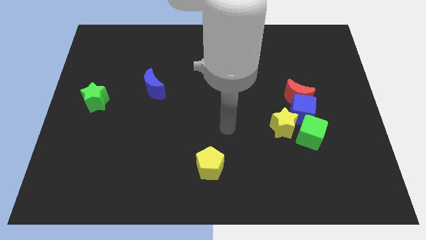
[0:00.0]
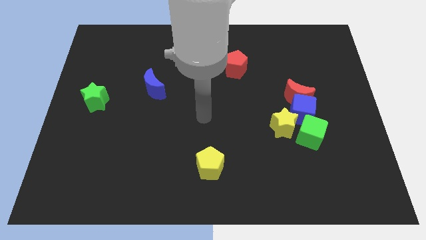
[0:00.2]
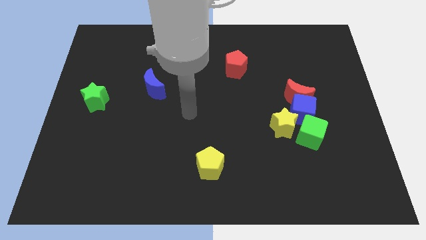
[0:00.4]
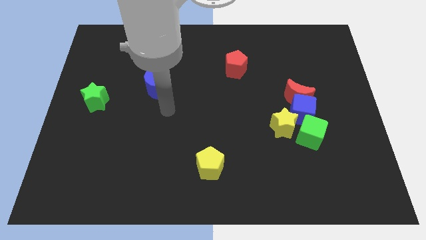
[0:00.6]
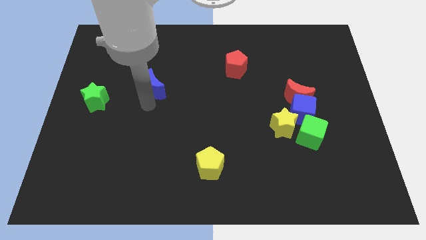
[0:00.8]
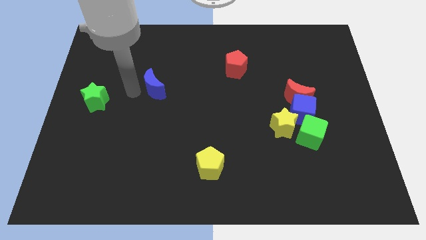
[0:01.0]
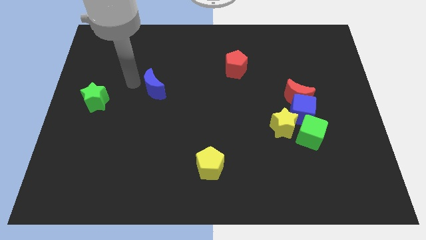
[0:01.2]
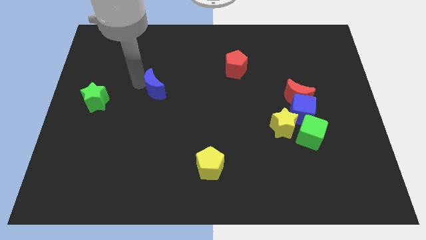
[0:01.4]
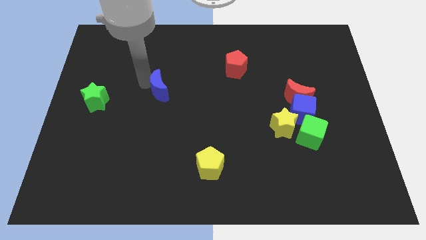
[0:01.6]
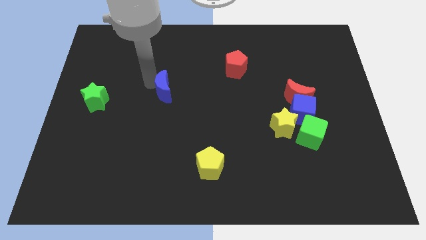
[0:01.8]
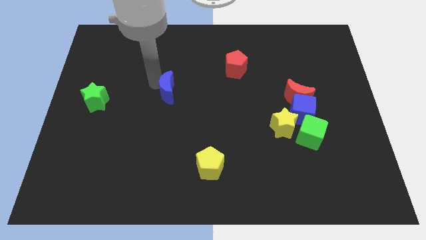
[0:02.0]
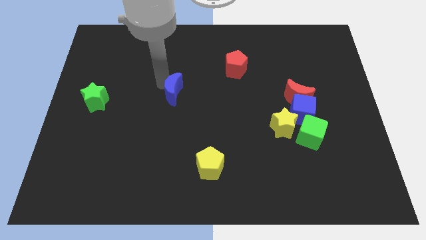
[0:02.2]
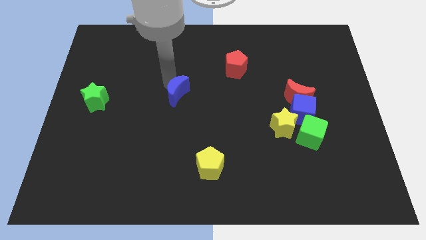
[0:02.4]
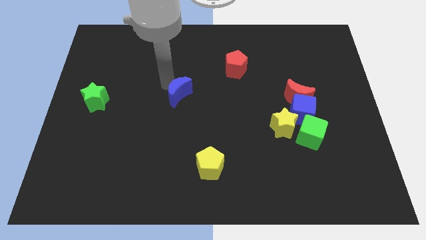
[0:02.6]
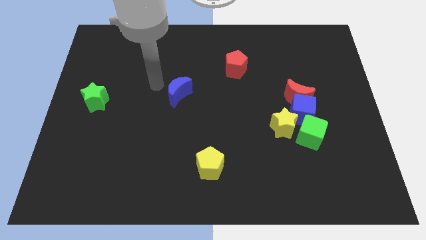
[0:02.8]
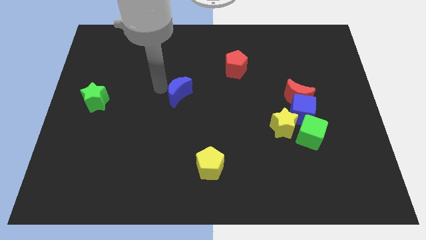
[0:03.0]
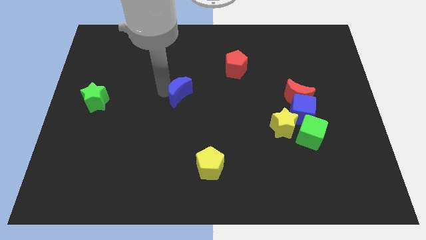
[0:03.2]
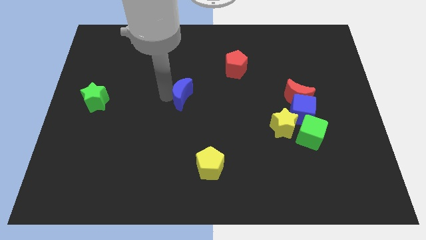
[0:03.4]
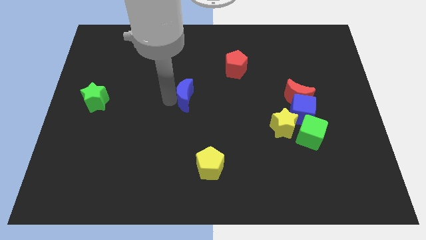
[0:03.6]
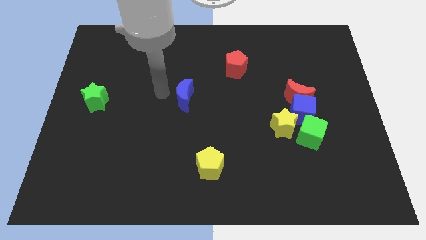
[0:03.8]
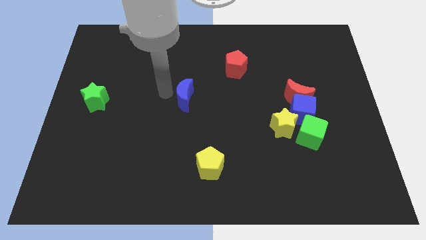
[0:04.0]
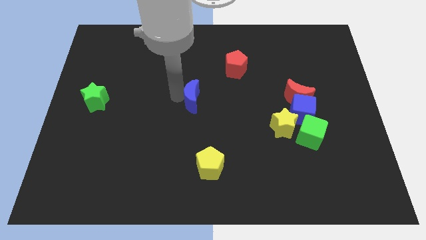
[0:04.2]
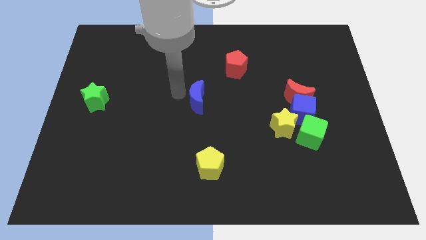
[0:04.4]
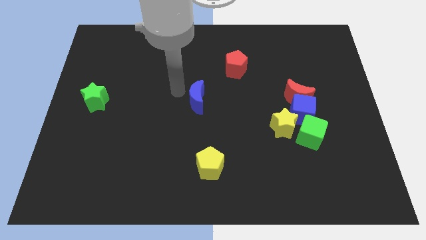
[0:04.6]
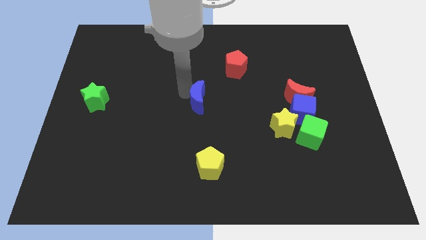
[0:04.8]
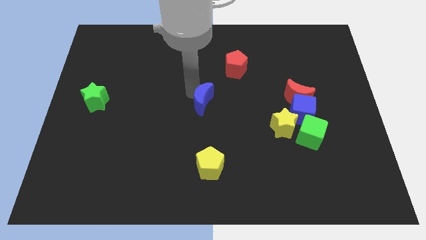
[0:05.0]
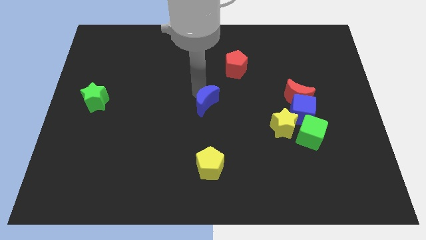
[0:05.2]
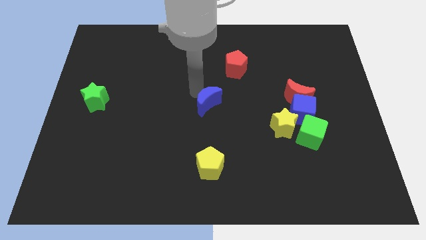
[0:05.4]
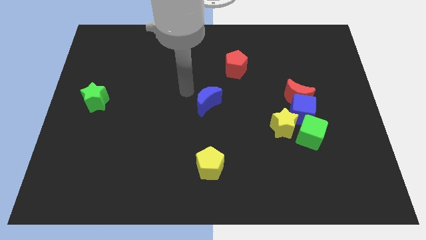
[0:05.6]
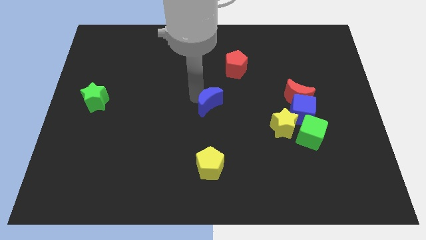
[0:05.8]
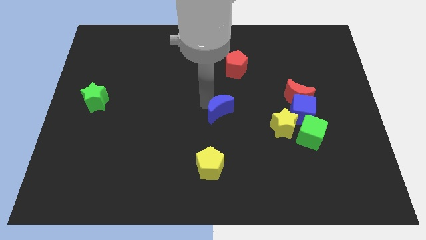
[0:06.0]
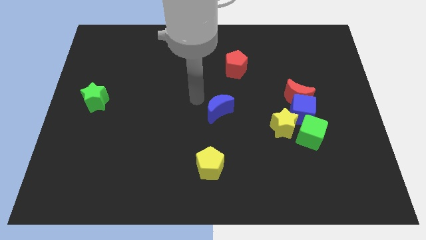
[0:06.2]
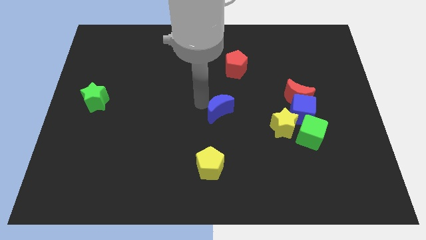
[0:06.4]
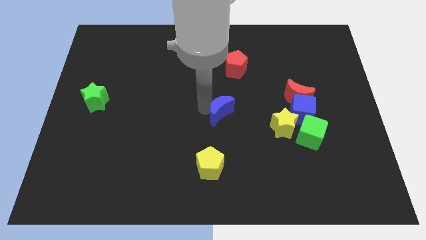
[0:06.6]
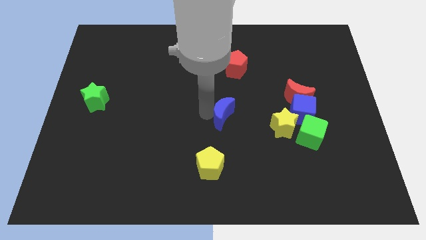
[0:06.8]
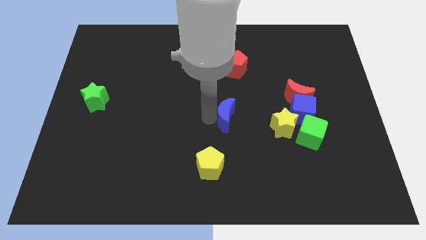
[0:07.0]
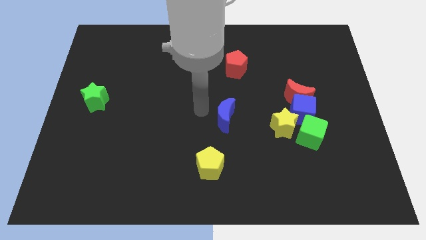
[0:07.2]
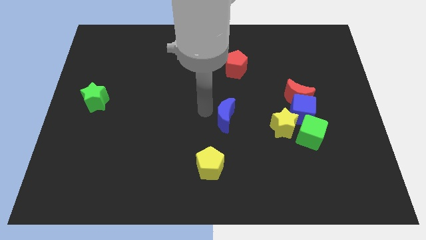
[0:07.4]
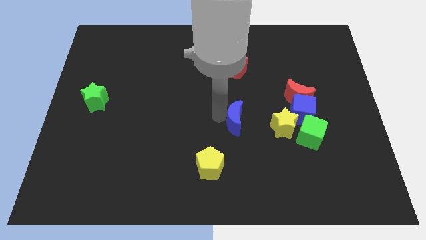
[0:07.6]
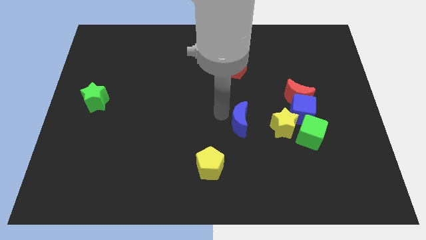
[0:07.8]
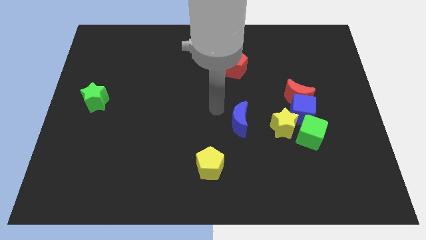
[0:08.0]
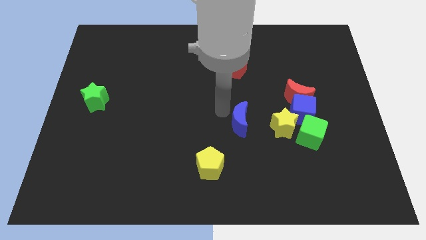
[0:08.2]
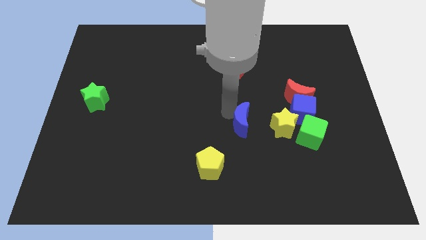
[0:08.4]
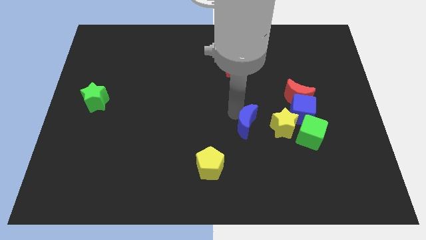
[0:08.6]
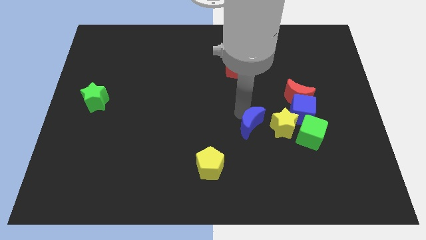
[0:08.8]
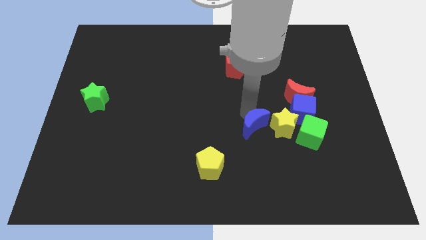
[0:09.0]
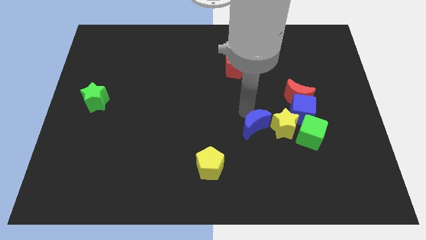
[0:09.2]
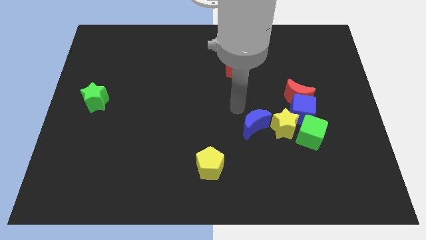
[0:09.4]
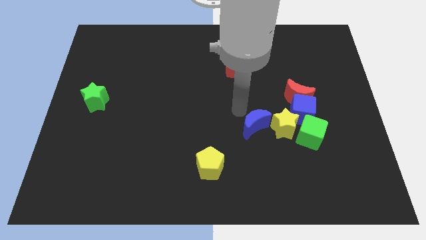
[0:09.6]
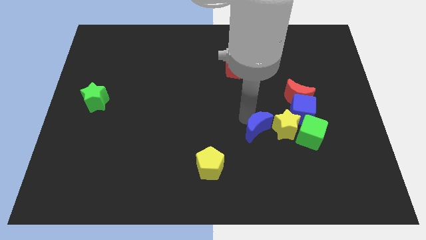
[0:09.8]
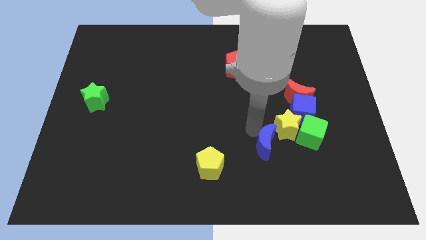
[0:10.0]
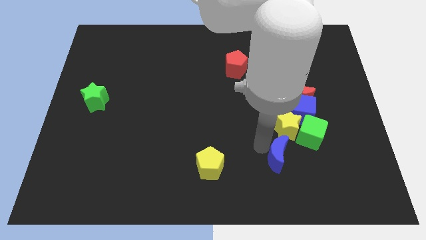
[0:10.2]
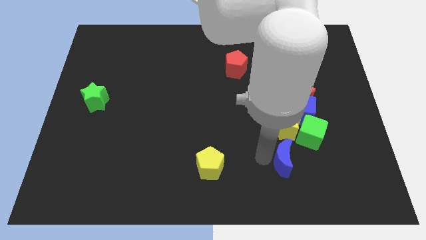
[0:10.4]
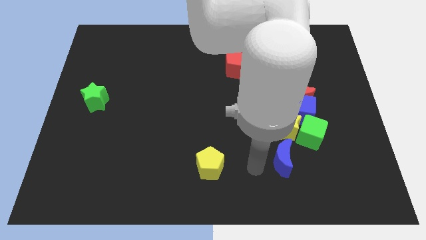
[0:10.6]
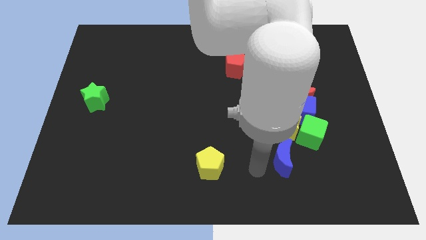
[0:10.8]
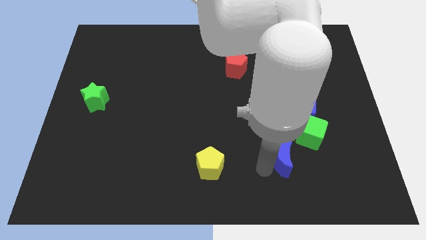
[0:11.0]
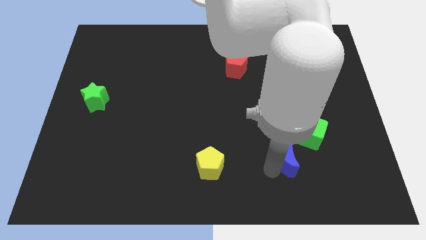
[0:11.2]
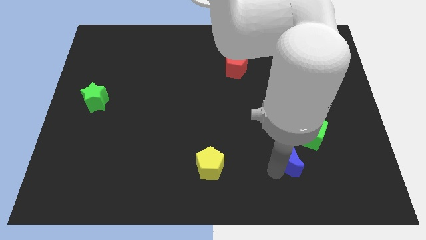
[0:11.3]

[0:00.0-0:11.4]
slide the blue moon below the blue cube

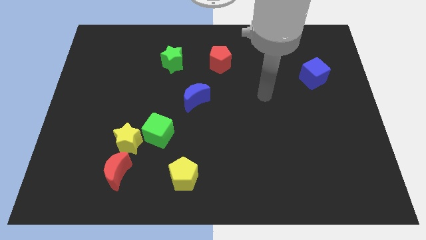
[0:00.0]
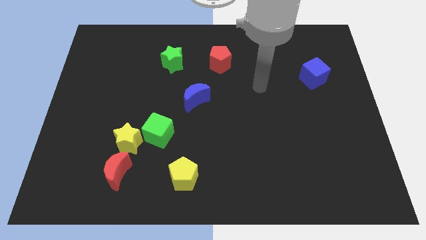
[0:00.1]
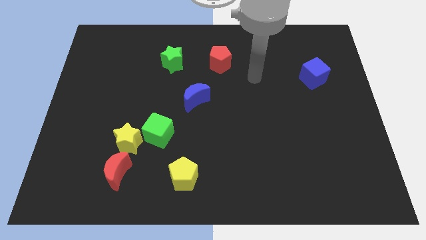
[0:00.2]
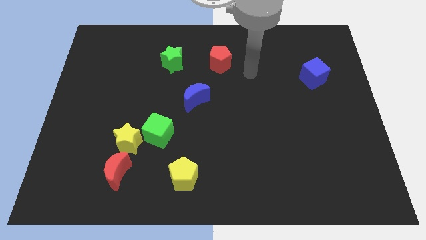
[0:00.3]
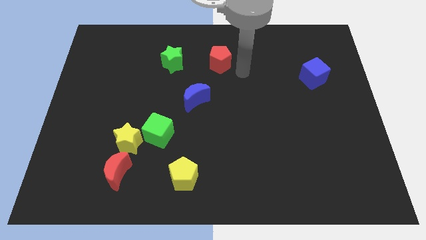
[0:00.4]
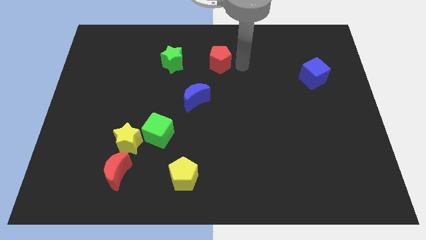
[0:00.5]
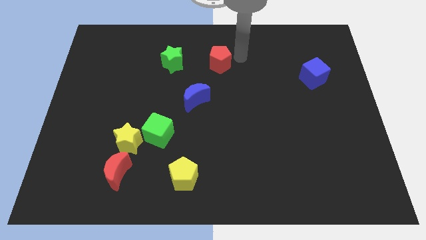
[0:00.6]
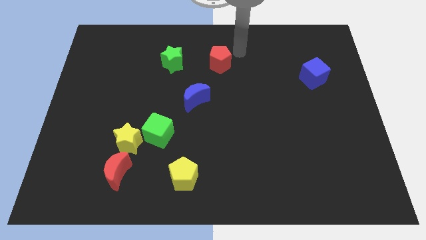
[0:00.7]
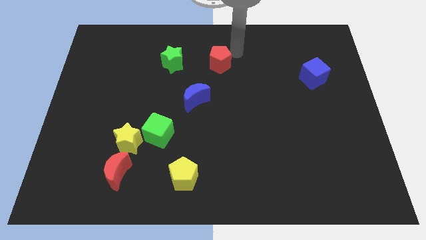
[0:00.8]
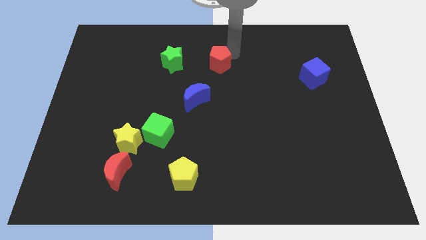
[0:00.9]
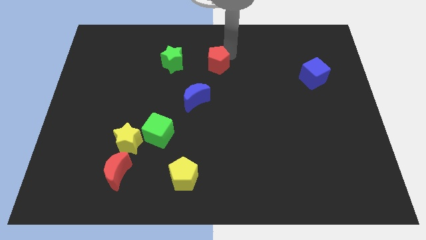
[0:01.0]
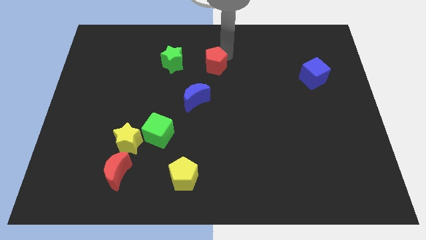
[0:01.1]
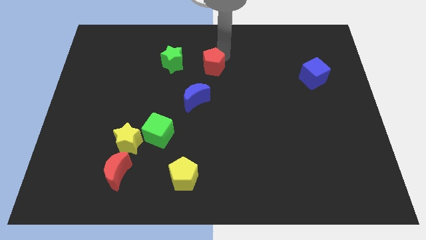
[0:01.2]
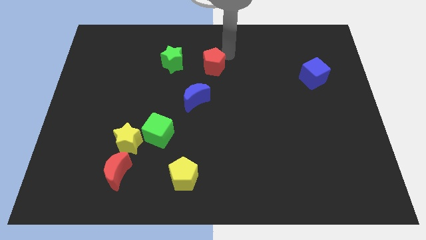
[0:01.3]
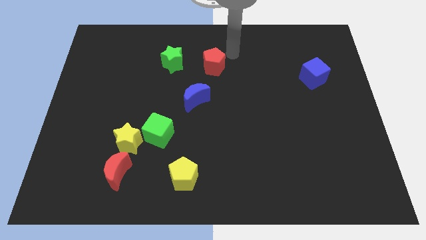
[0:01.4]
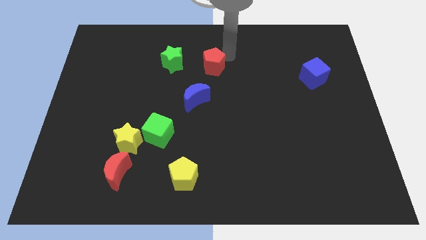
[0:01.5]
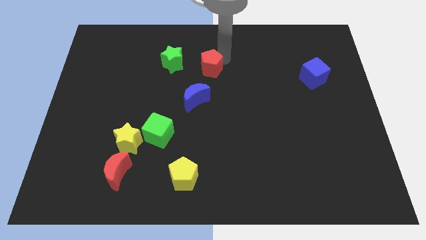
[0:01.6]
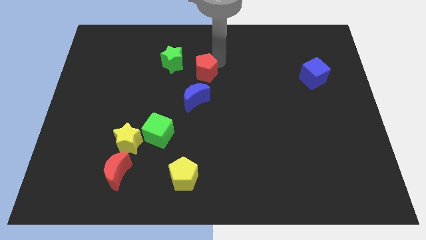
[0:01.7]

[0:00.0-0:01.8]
move the red pentagon to the bottom right side of the green star
